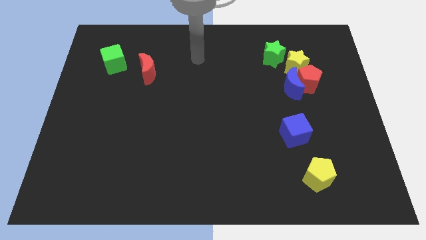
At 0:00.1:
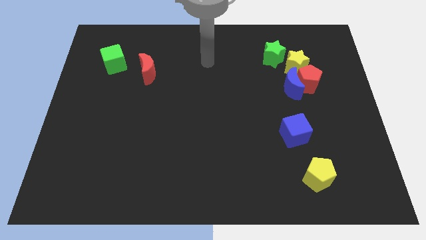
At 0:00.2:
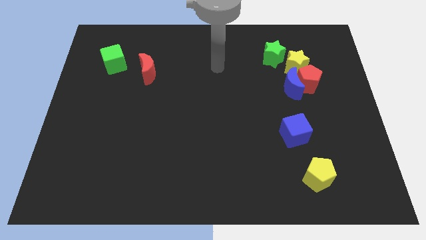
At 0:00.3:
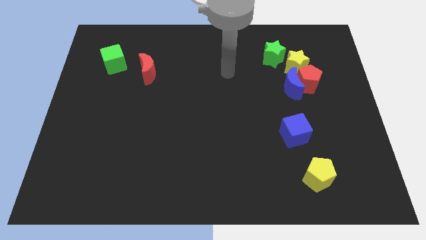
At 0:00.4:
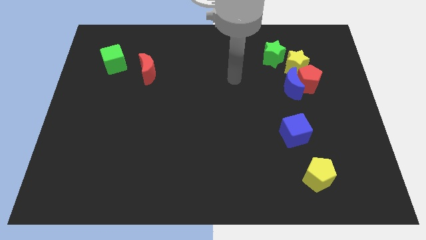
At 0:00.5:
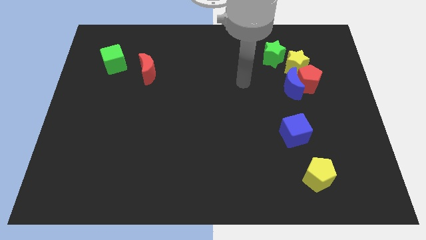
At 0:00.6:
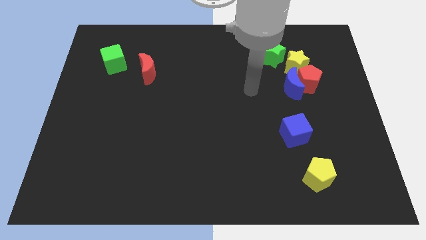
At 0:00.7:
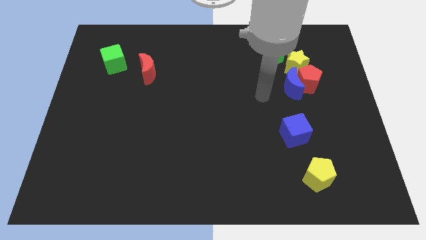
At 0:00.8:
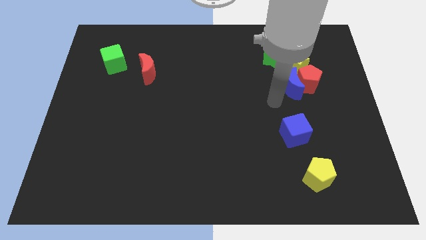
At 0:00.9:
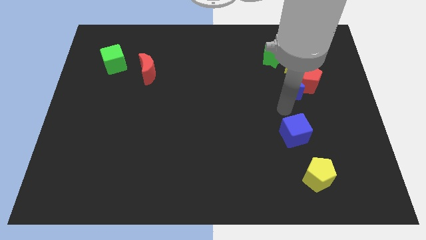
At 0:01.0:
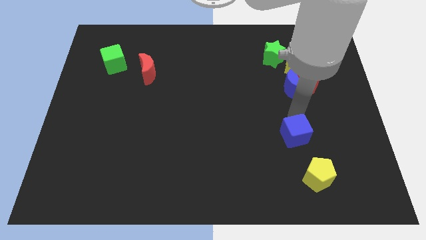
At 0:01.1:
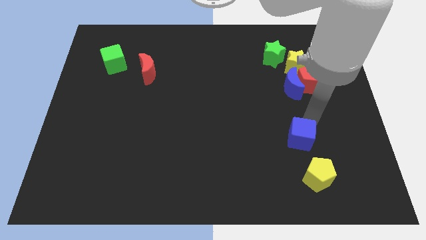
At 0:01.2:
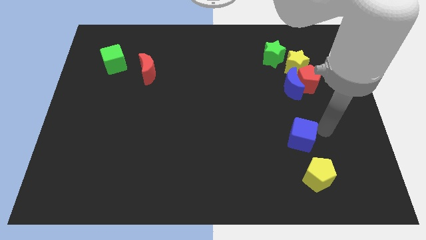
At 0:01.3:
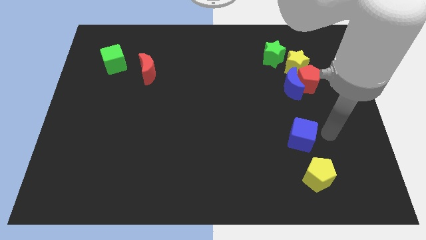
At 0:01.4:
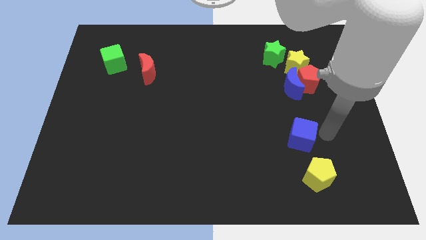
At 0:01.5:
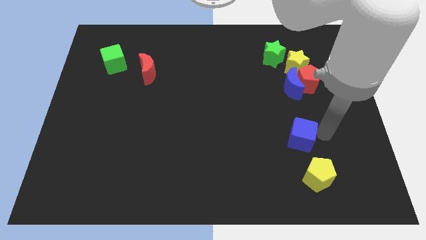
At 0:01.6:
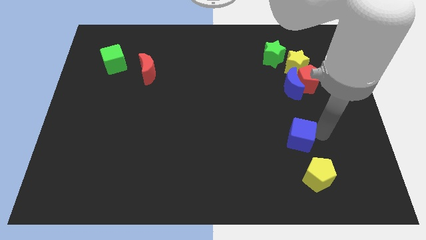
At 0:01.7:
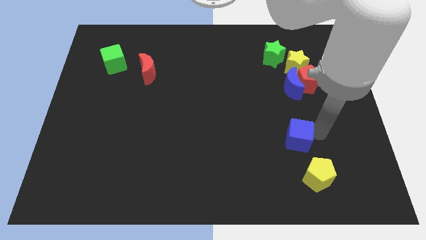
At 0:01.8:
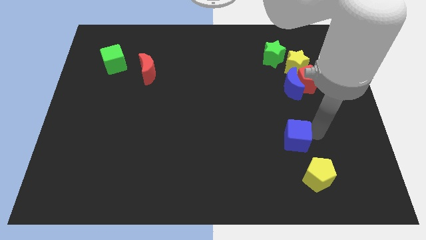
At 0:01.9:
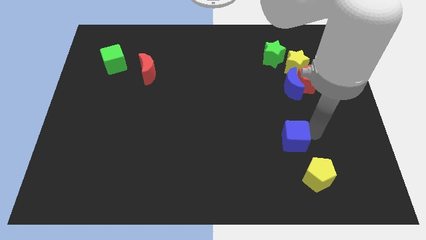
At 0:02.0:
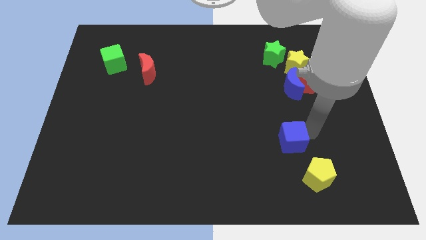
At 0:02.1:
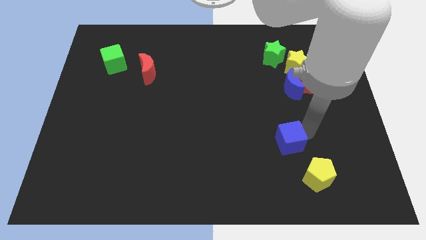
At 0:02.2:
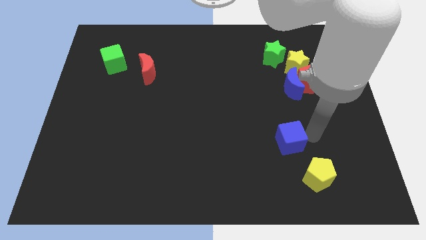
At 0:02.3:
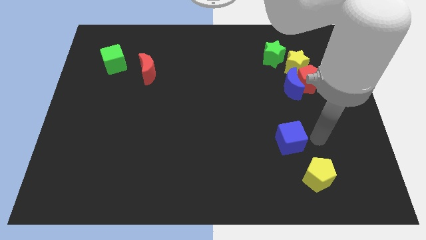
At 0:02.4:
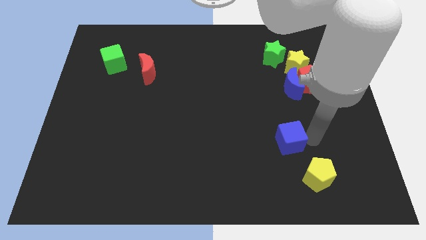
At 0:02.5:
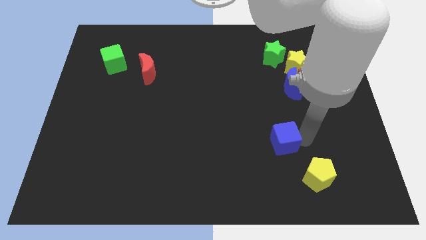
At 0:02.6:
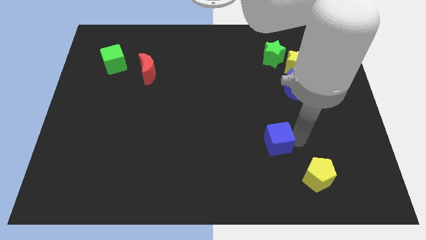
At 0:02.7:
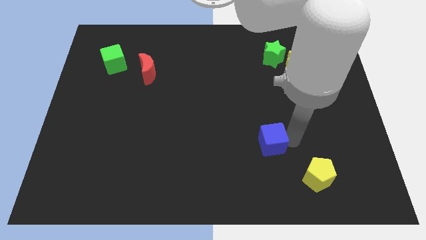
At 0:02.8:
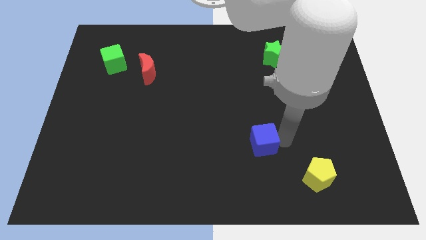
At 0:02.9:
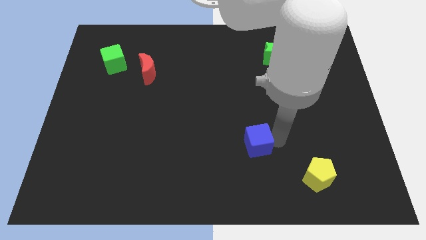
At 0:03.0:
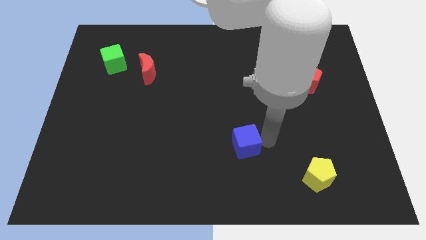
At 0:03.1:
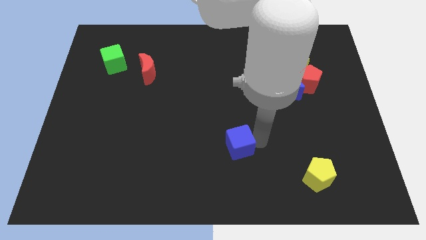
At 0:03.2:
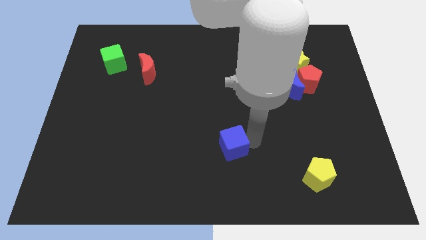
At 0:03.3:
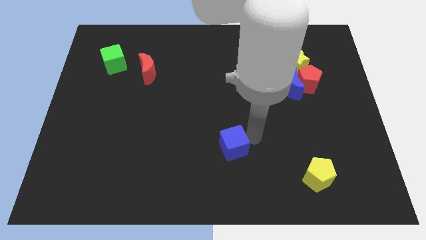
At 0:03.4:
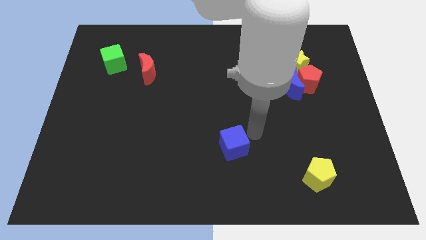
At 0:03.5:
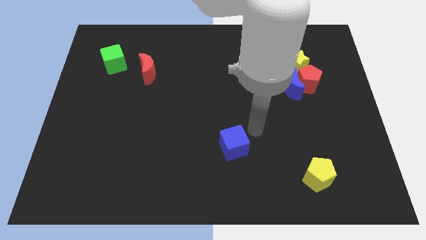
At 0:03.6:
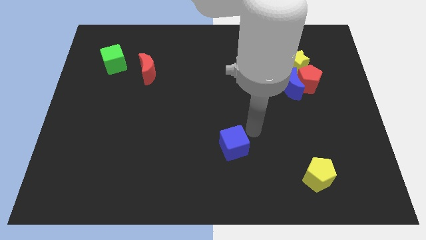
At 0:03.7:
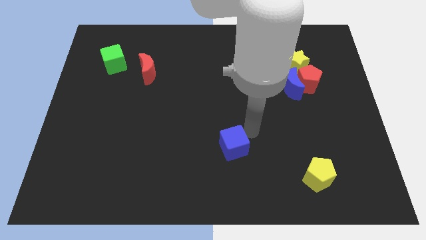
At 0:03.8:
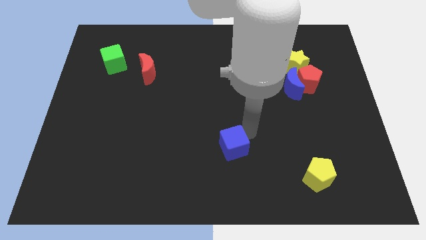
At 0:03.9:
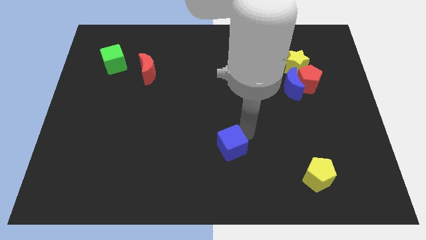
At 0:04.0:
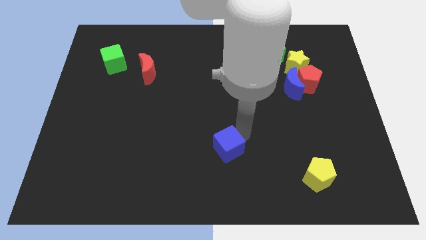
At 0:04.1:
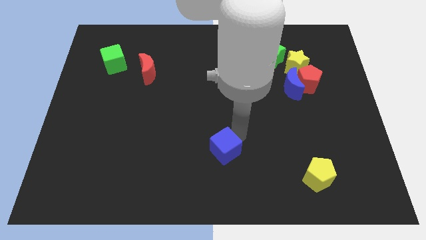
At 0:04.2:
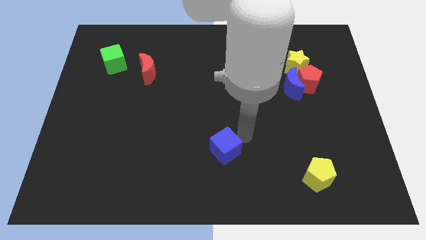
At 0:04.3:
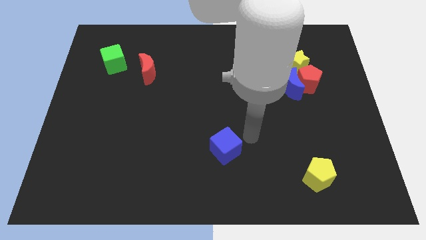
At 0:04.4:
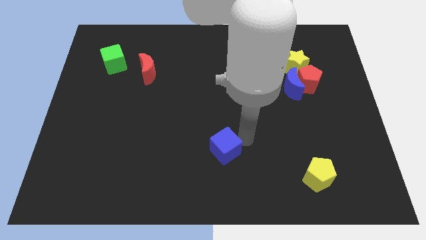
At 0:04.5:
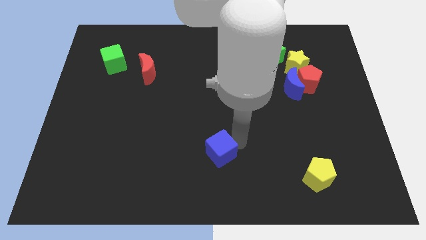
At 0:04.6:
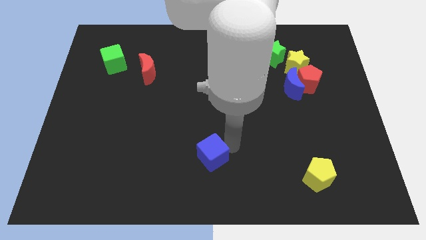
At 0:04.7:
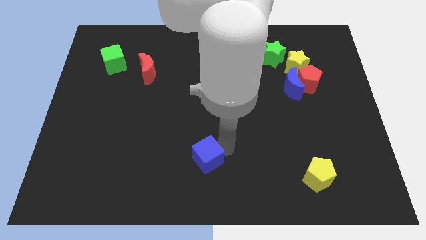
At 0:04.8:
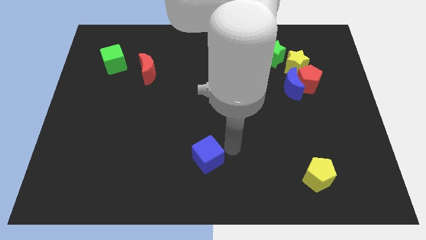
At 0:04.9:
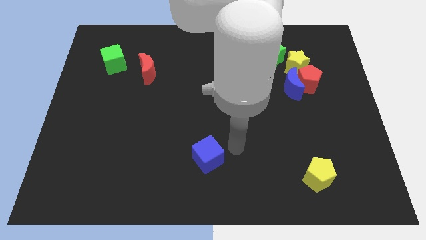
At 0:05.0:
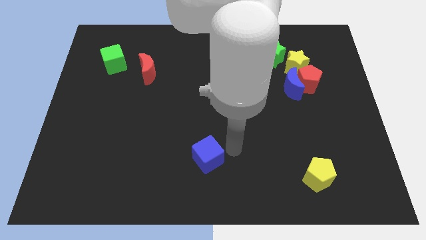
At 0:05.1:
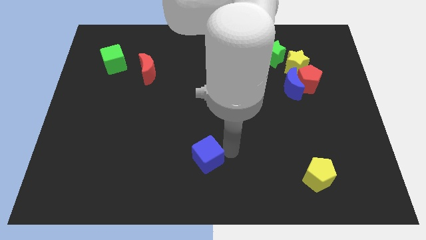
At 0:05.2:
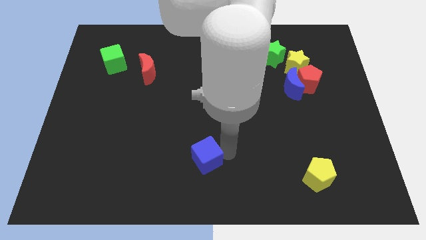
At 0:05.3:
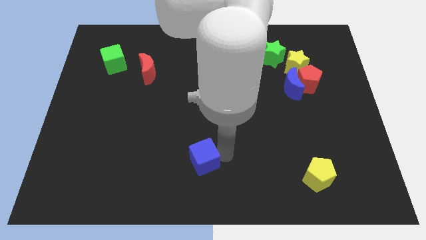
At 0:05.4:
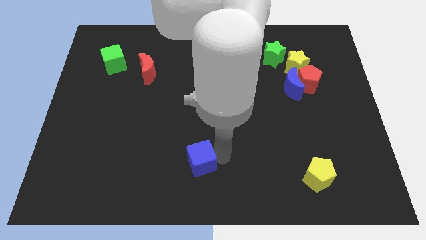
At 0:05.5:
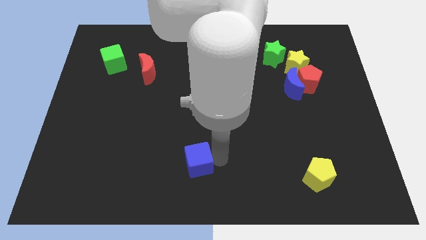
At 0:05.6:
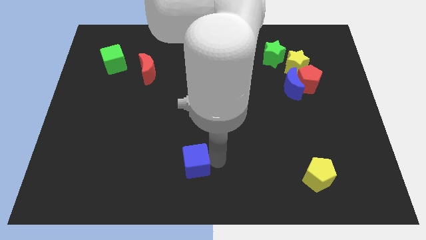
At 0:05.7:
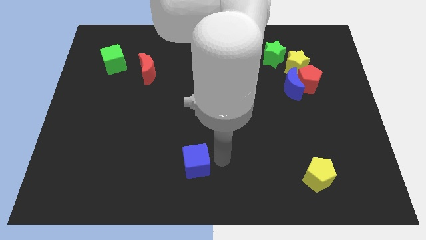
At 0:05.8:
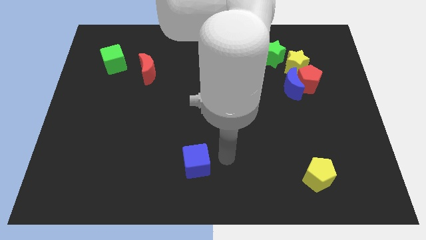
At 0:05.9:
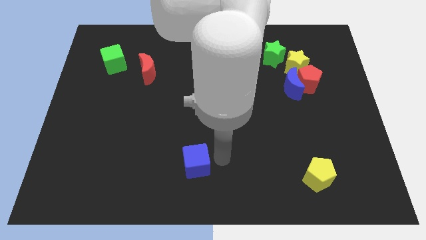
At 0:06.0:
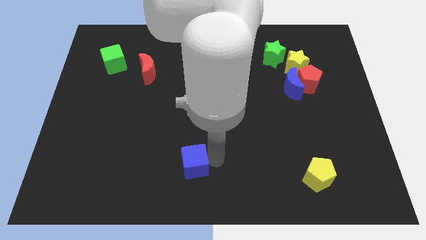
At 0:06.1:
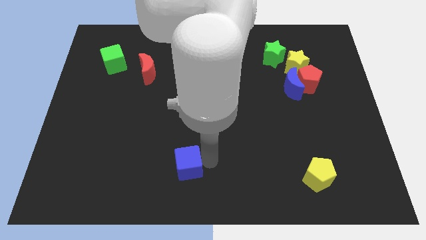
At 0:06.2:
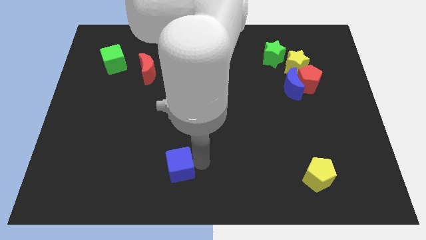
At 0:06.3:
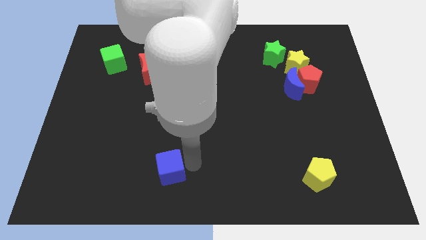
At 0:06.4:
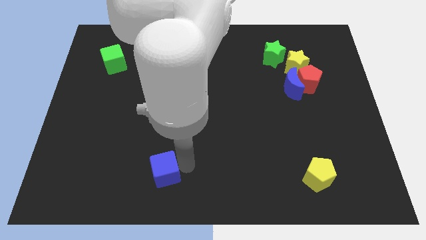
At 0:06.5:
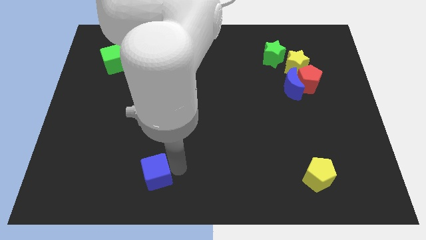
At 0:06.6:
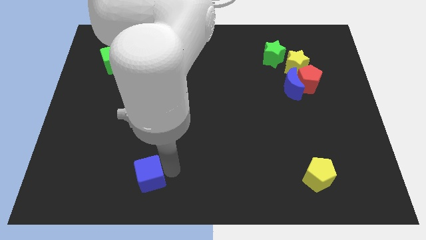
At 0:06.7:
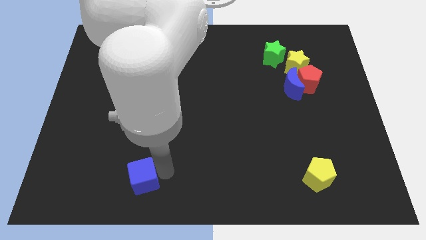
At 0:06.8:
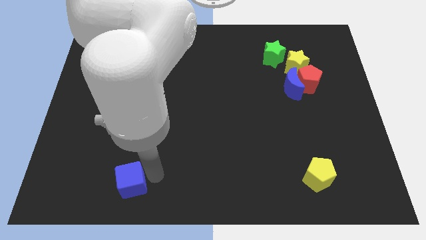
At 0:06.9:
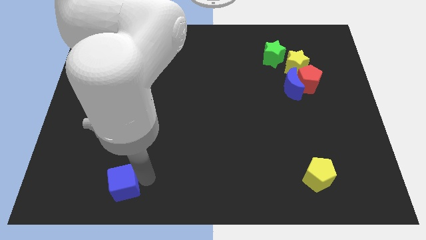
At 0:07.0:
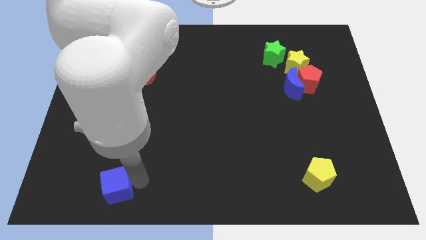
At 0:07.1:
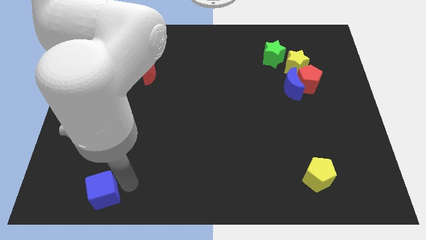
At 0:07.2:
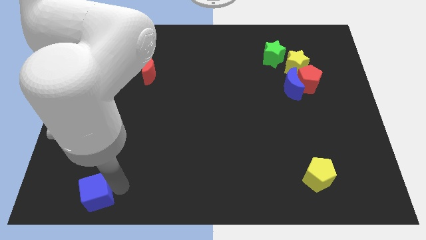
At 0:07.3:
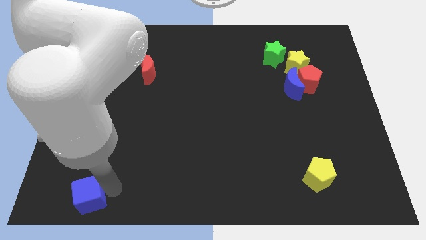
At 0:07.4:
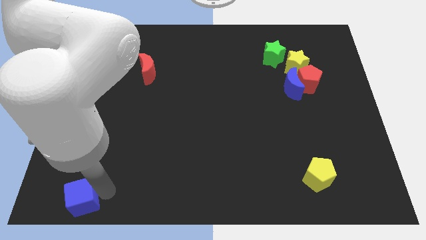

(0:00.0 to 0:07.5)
push the blue cube to the bottom left of the board
